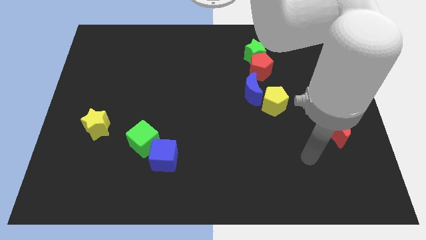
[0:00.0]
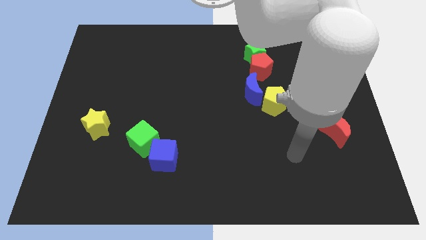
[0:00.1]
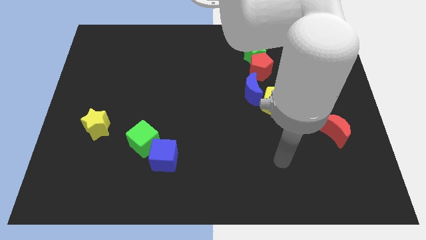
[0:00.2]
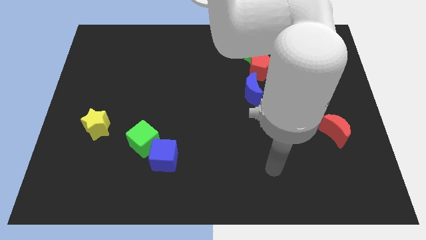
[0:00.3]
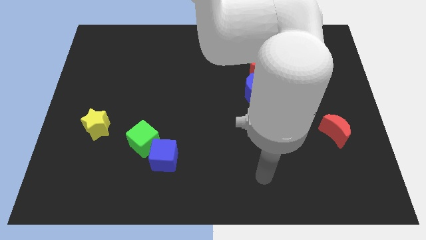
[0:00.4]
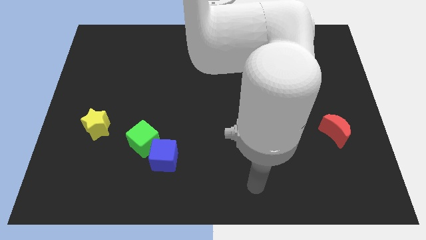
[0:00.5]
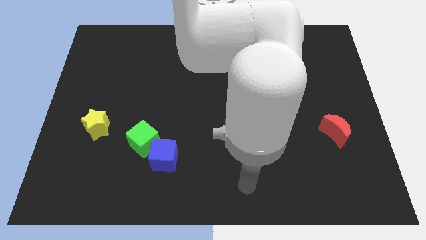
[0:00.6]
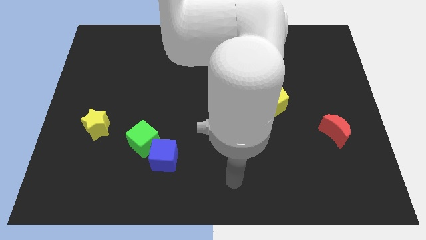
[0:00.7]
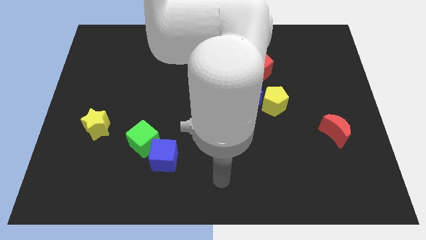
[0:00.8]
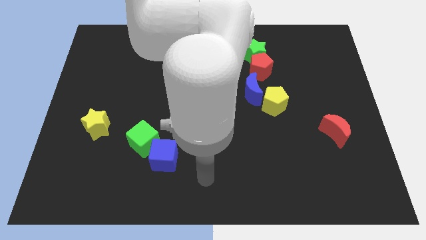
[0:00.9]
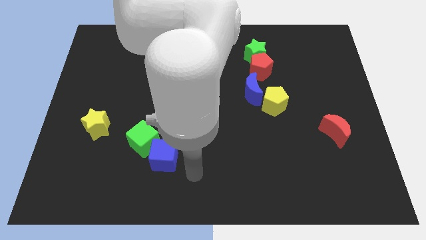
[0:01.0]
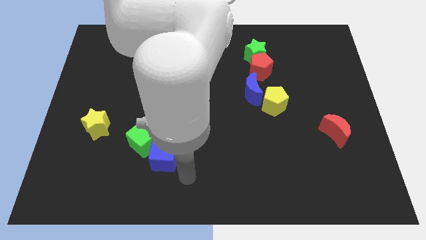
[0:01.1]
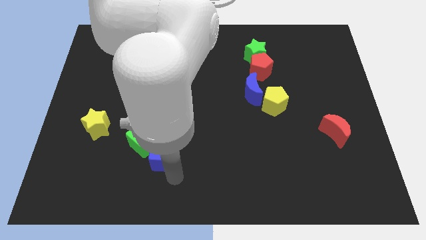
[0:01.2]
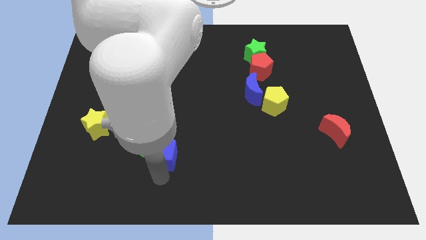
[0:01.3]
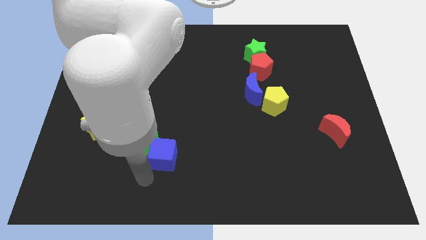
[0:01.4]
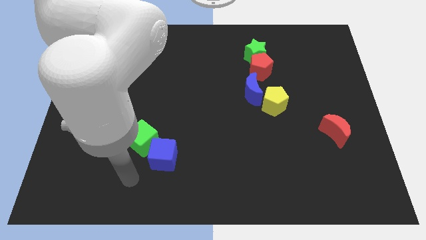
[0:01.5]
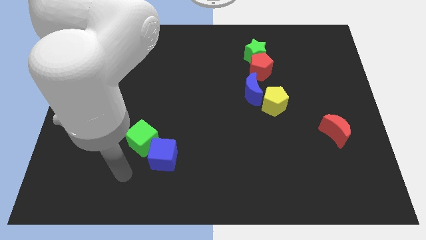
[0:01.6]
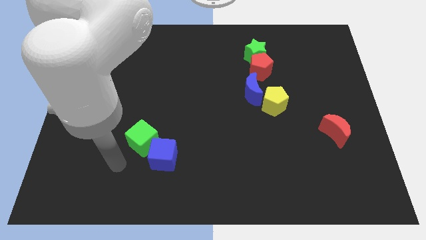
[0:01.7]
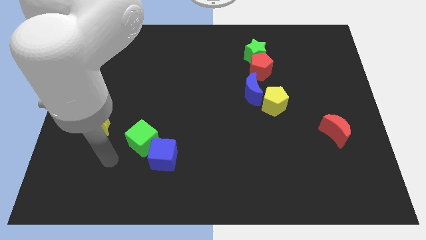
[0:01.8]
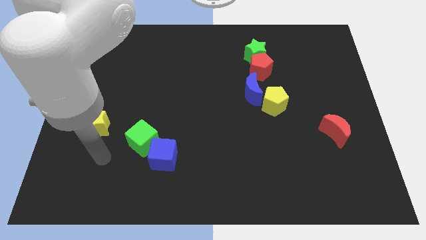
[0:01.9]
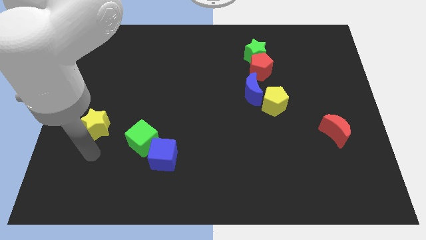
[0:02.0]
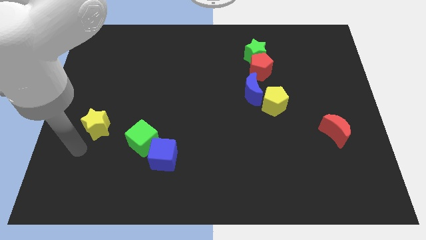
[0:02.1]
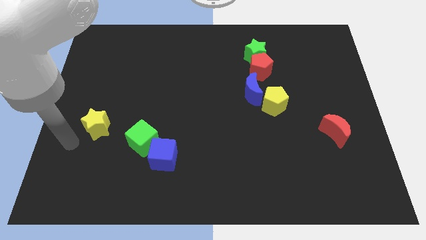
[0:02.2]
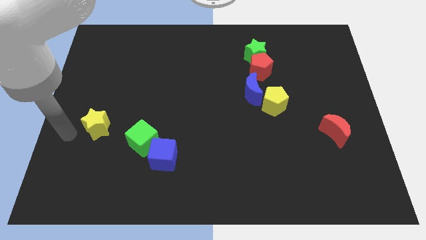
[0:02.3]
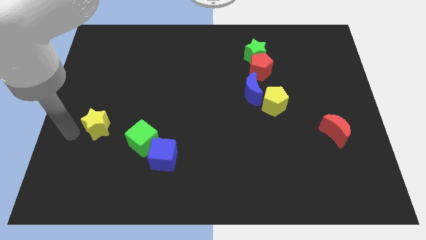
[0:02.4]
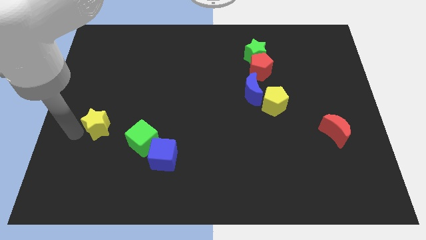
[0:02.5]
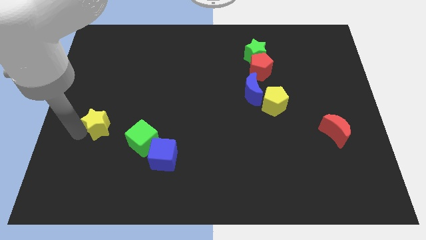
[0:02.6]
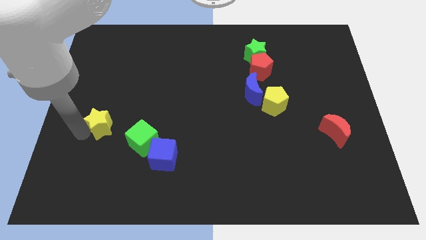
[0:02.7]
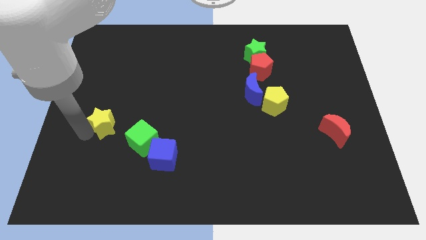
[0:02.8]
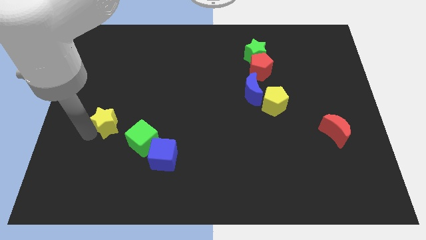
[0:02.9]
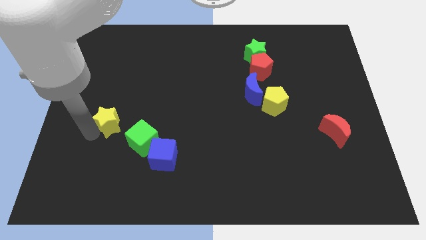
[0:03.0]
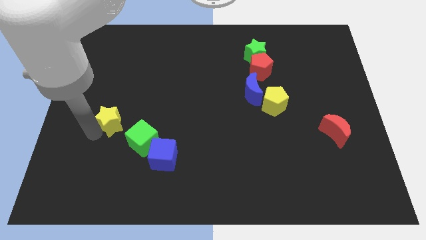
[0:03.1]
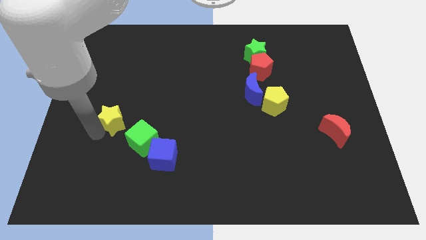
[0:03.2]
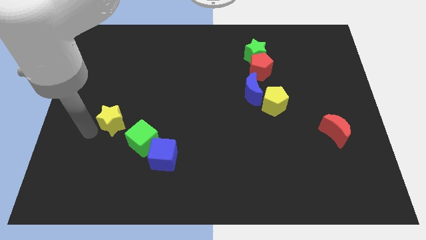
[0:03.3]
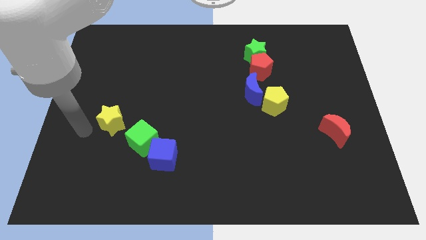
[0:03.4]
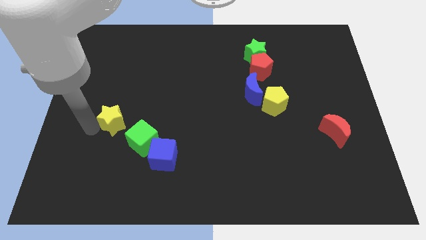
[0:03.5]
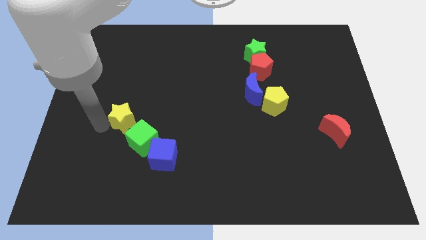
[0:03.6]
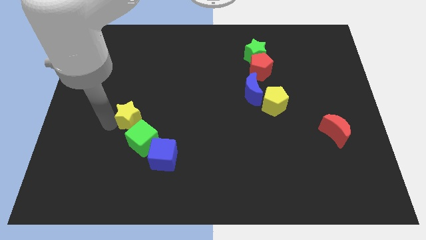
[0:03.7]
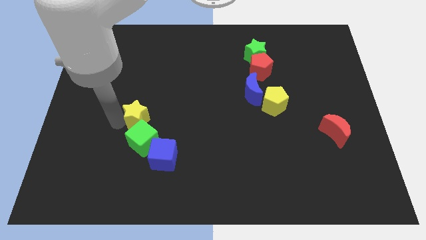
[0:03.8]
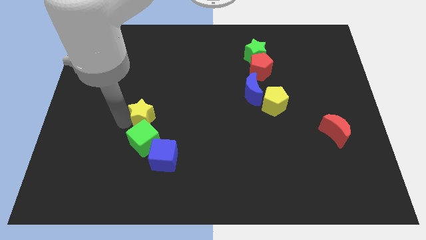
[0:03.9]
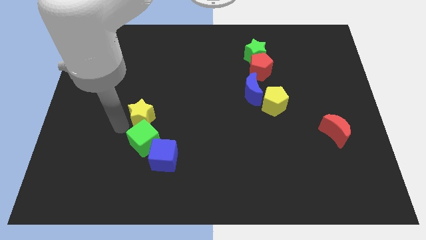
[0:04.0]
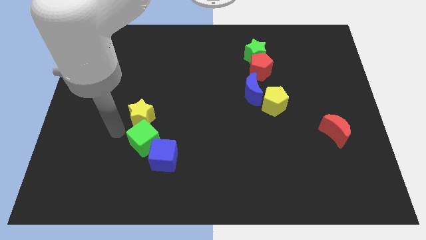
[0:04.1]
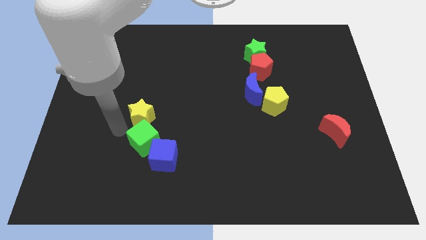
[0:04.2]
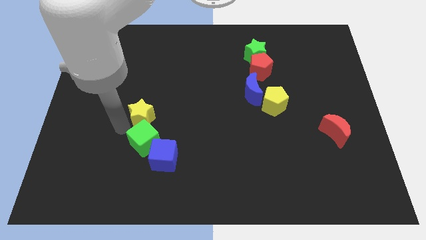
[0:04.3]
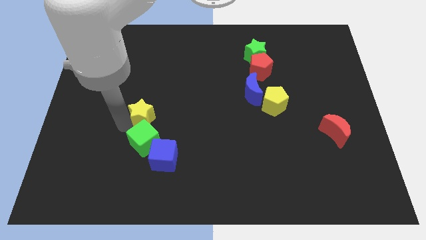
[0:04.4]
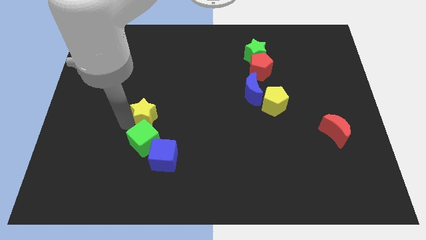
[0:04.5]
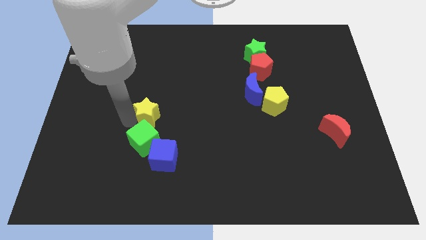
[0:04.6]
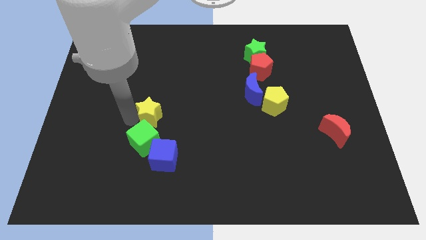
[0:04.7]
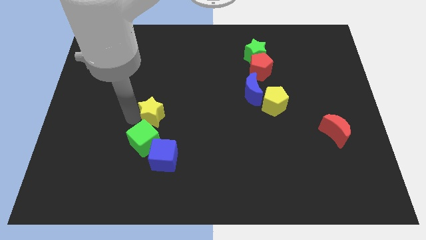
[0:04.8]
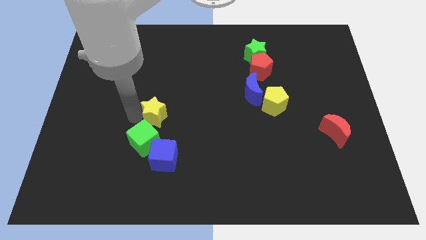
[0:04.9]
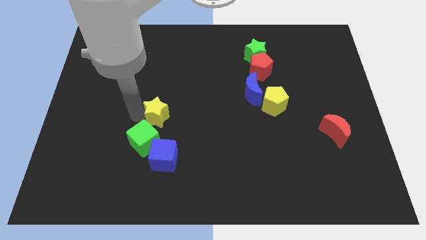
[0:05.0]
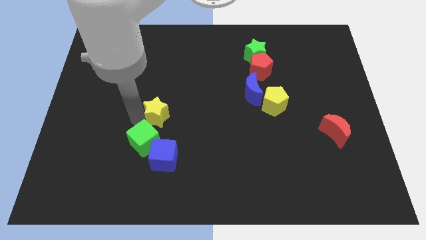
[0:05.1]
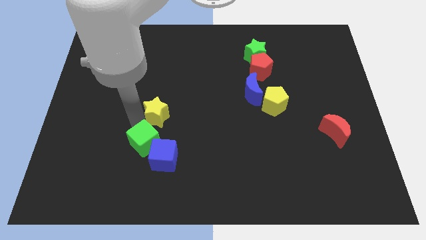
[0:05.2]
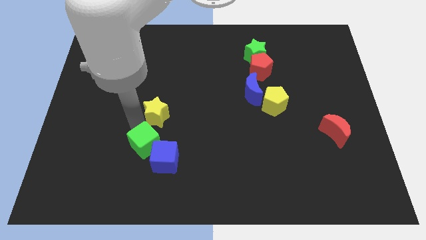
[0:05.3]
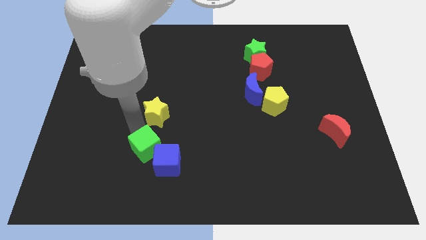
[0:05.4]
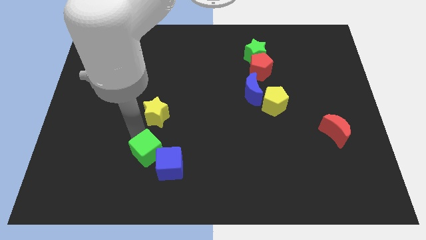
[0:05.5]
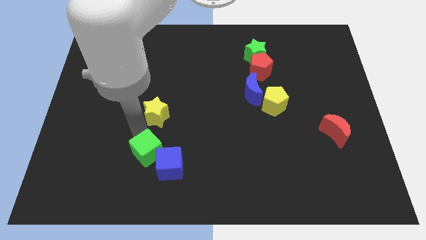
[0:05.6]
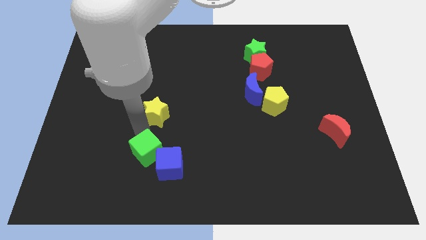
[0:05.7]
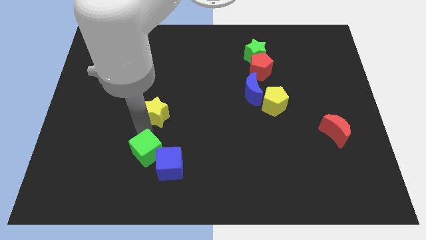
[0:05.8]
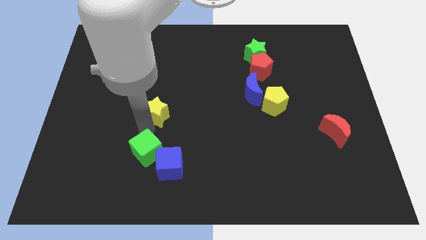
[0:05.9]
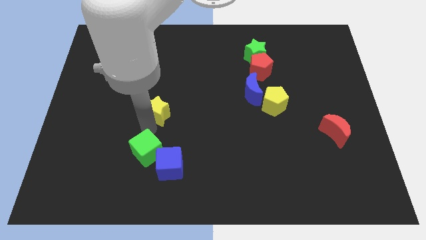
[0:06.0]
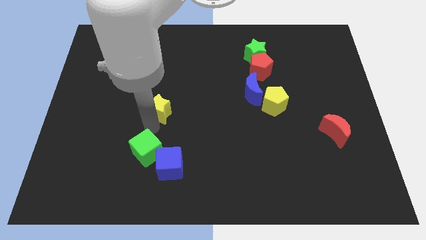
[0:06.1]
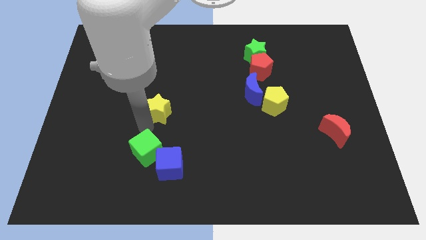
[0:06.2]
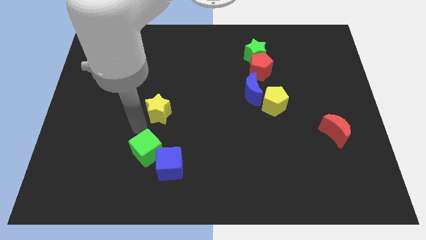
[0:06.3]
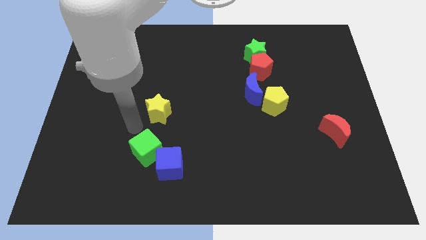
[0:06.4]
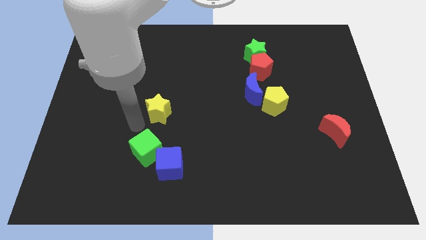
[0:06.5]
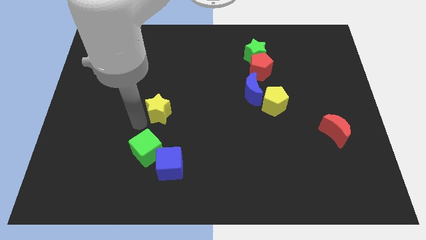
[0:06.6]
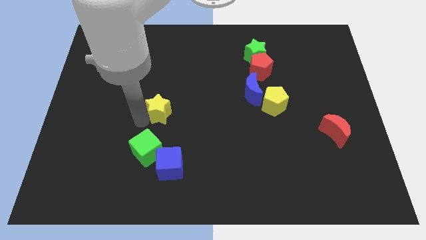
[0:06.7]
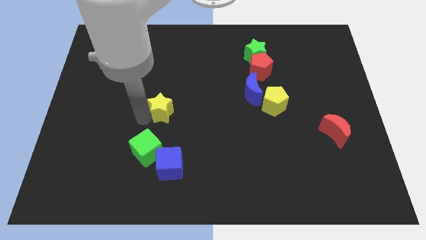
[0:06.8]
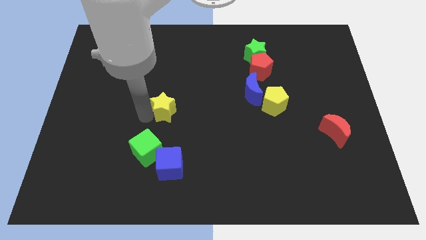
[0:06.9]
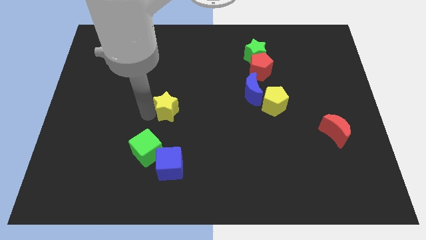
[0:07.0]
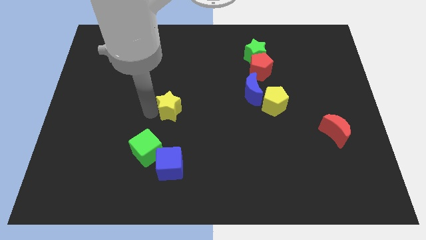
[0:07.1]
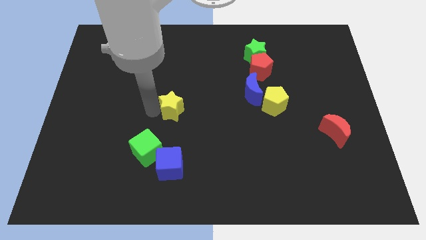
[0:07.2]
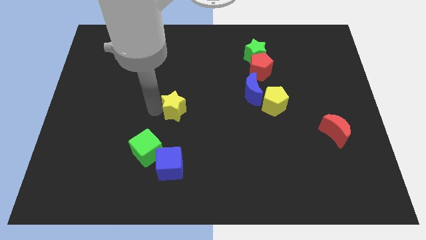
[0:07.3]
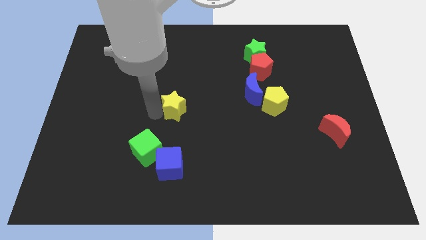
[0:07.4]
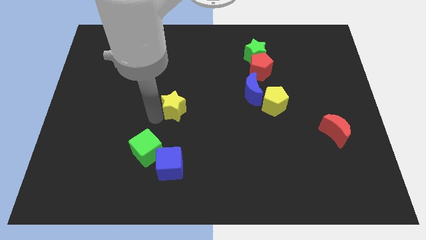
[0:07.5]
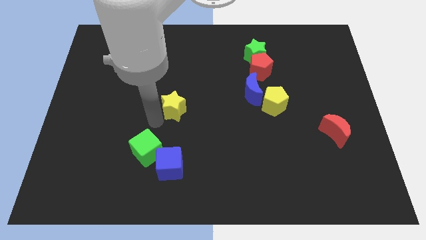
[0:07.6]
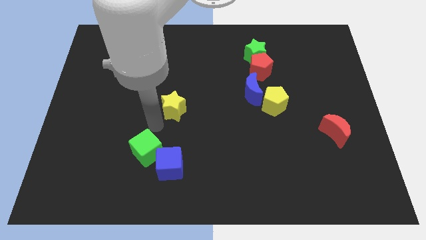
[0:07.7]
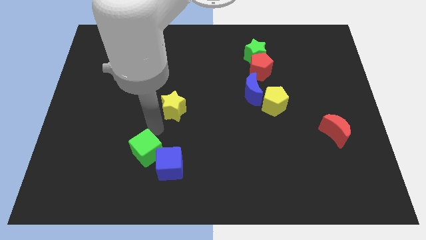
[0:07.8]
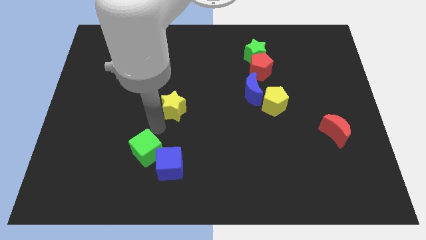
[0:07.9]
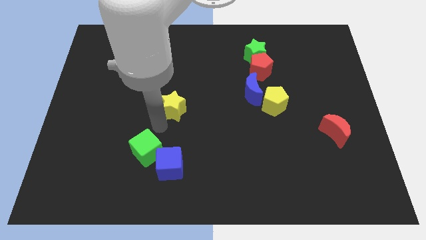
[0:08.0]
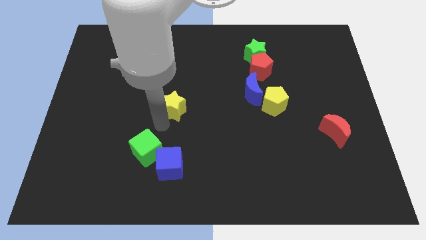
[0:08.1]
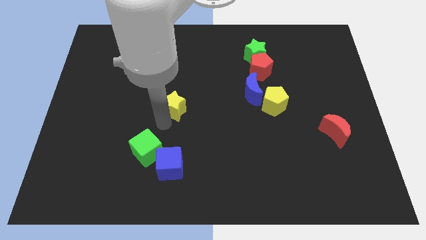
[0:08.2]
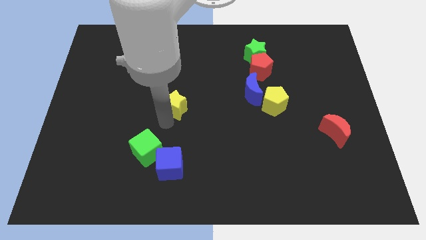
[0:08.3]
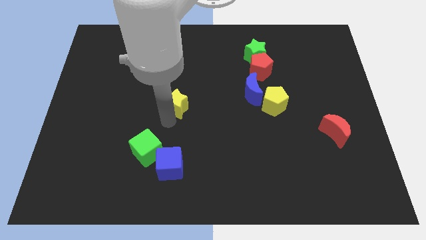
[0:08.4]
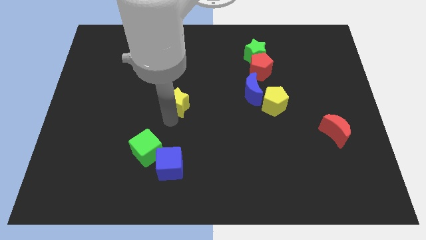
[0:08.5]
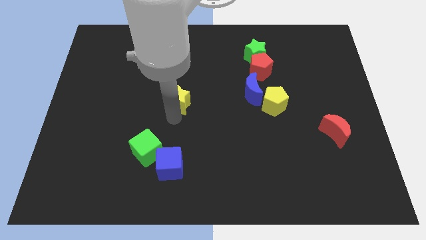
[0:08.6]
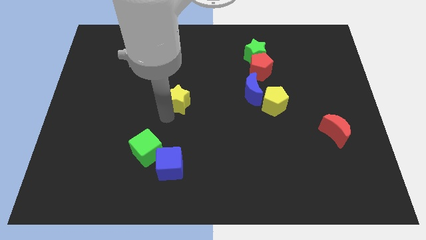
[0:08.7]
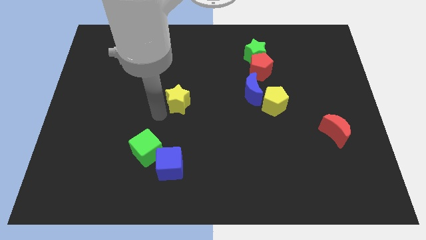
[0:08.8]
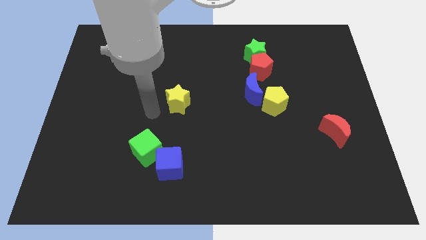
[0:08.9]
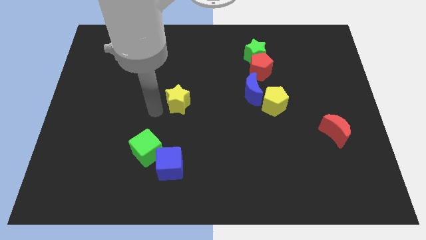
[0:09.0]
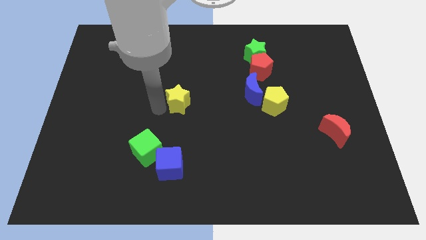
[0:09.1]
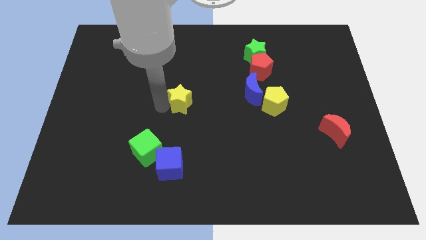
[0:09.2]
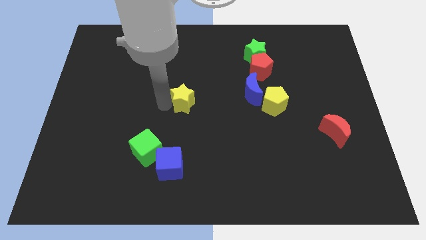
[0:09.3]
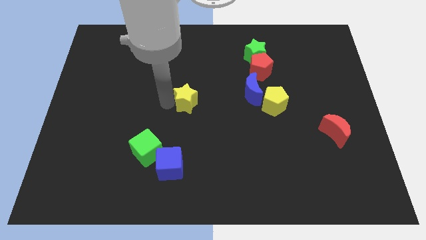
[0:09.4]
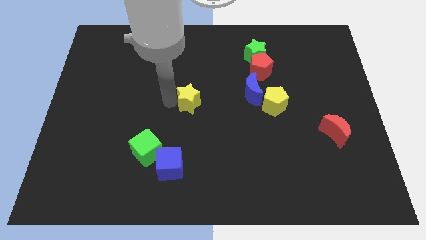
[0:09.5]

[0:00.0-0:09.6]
push the yellow star to the left of the blue moon
